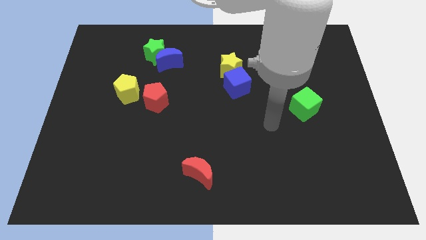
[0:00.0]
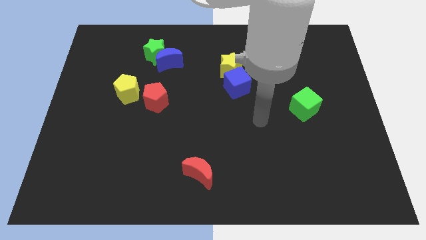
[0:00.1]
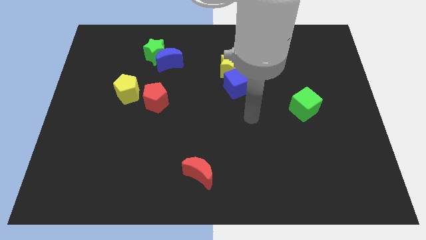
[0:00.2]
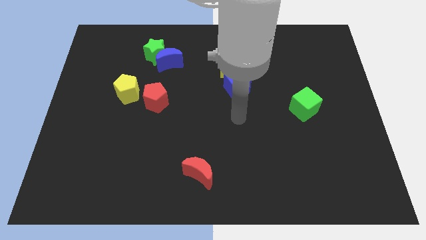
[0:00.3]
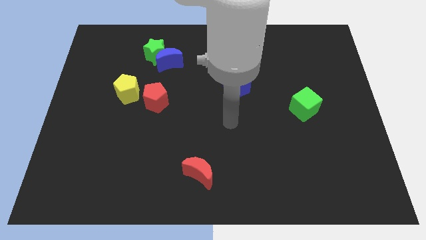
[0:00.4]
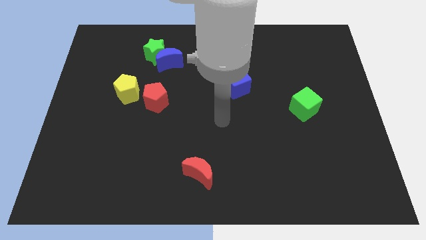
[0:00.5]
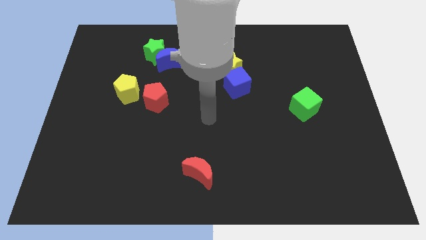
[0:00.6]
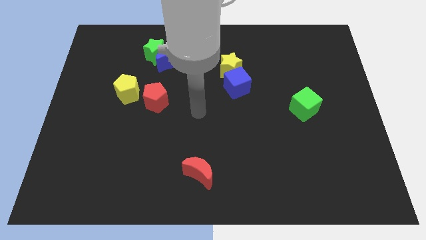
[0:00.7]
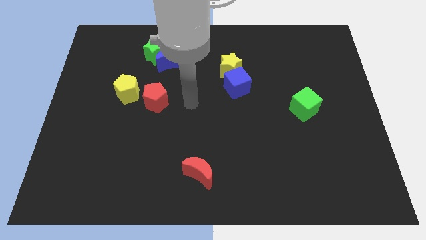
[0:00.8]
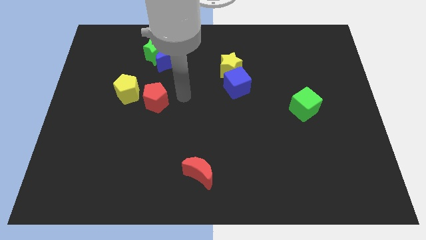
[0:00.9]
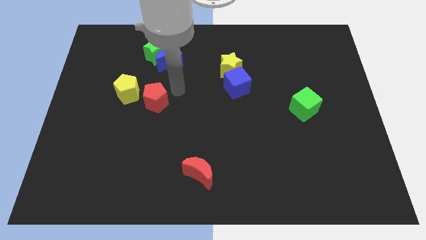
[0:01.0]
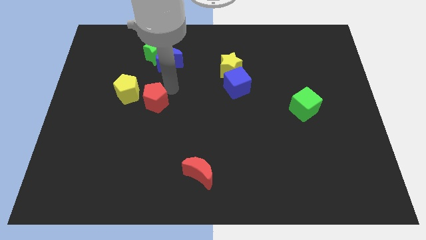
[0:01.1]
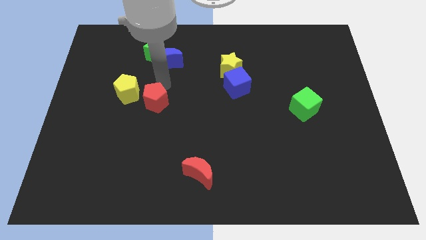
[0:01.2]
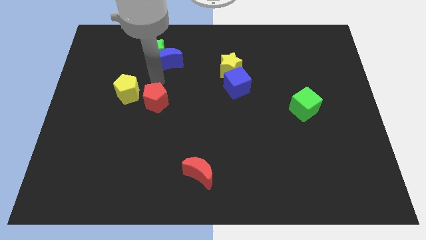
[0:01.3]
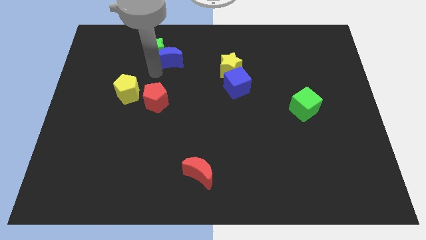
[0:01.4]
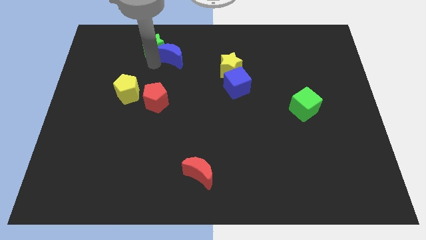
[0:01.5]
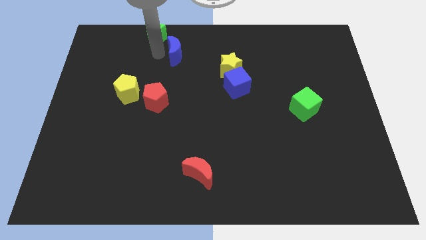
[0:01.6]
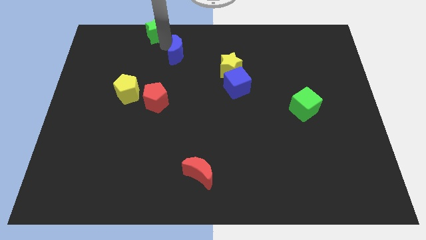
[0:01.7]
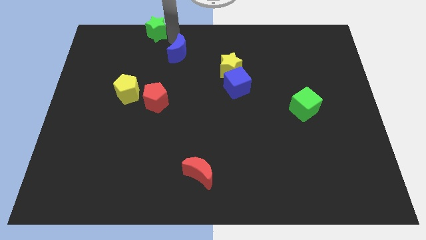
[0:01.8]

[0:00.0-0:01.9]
move the blue moon away from the green star

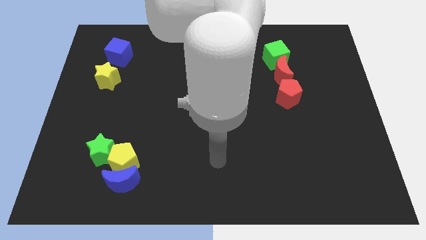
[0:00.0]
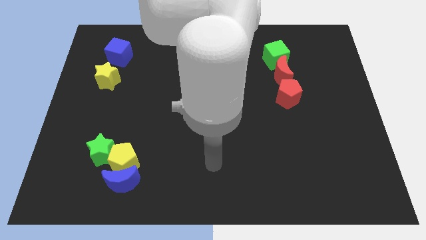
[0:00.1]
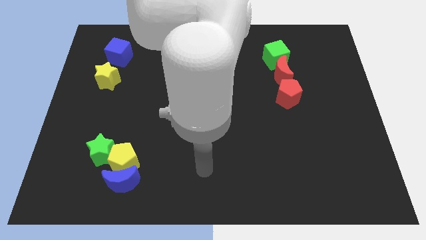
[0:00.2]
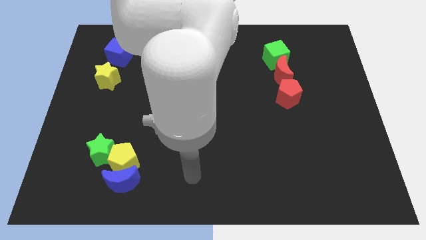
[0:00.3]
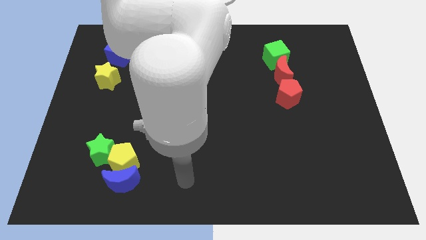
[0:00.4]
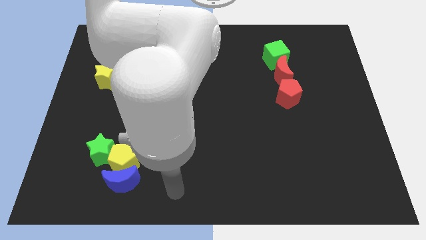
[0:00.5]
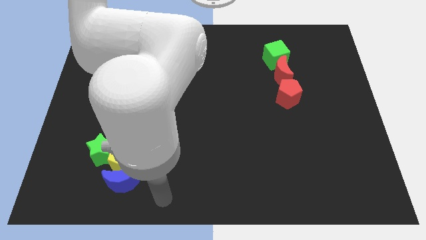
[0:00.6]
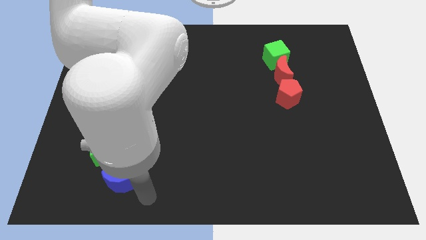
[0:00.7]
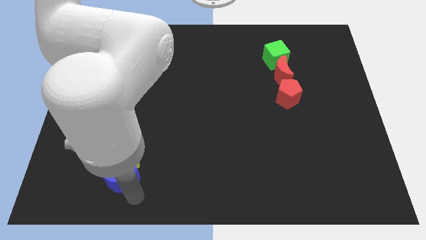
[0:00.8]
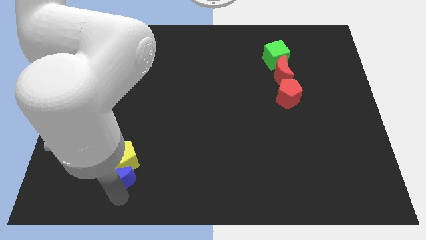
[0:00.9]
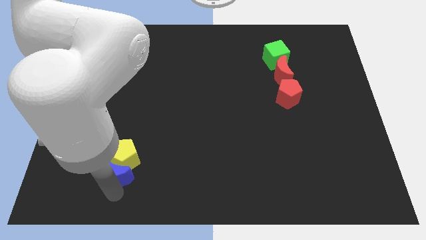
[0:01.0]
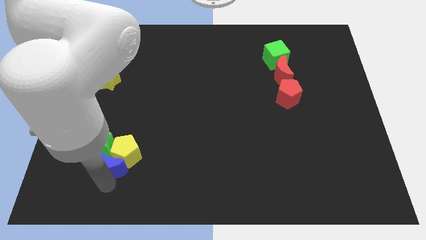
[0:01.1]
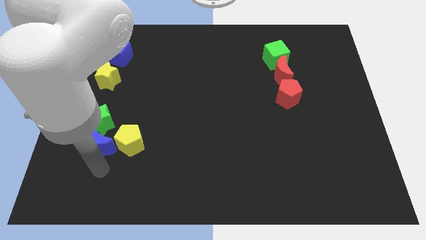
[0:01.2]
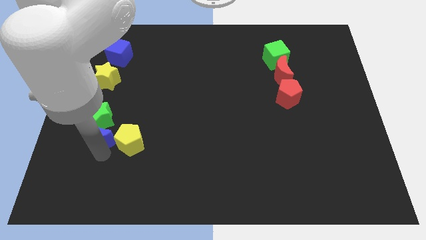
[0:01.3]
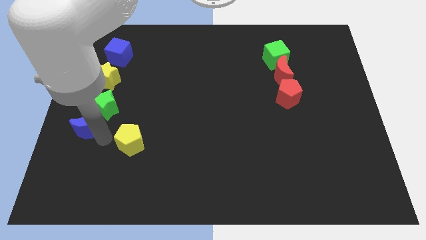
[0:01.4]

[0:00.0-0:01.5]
move the yellow pentagon away from the blue moon and green star

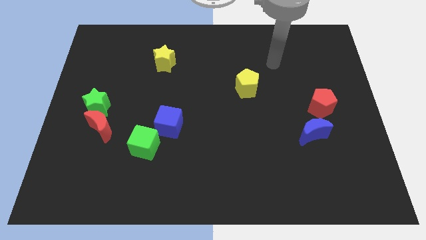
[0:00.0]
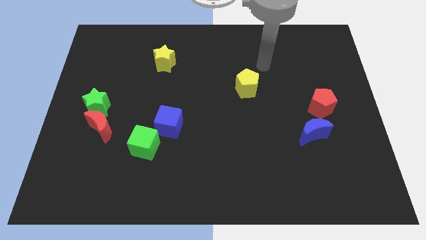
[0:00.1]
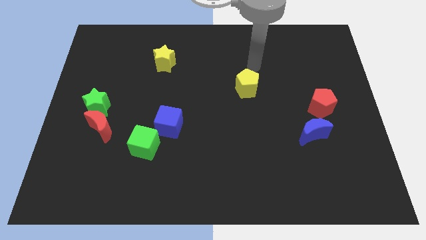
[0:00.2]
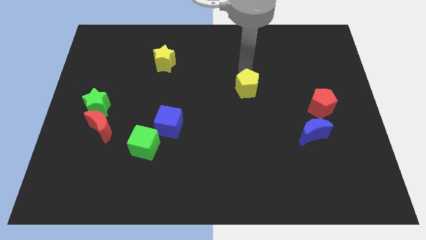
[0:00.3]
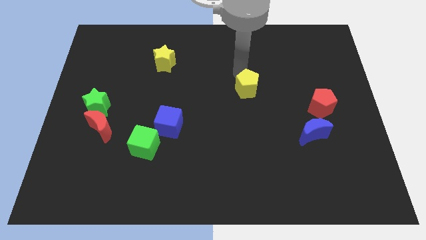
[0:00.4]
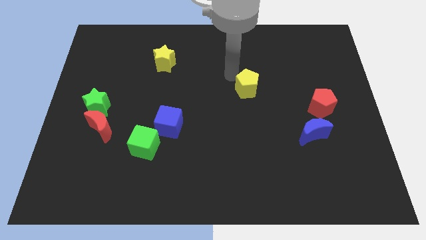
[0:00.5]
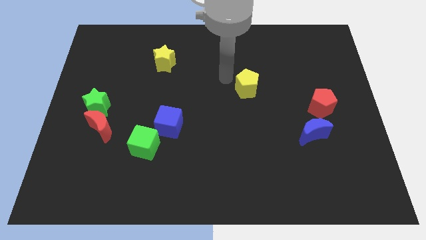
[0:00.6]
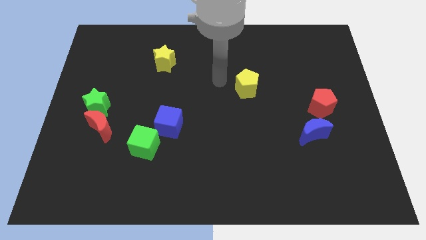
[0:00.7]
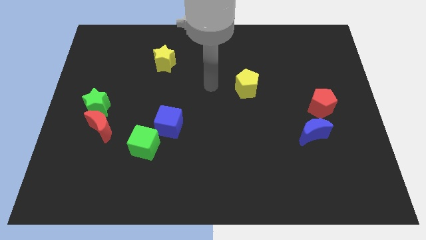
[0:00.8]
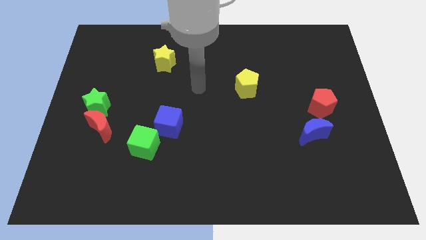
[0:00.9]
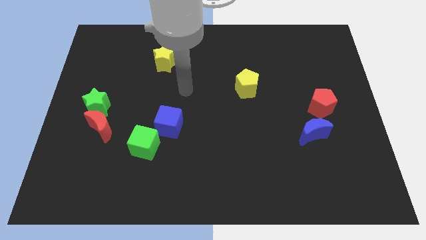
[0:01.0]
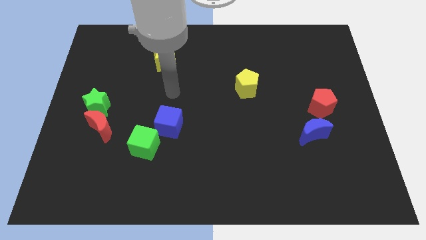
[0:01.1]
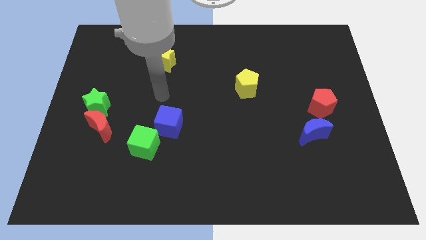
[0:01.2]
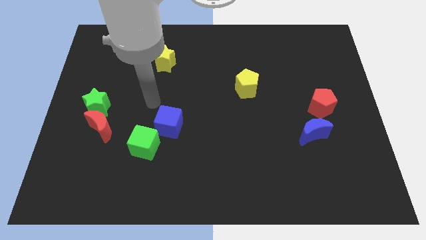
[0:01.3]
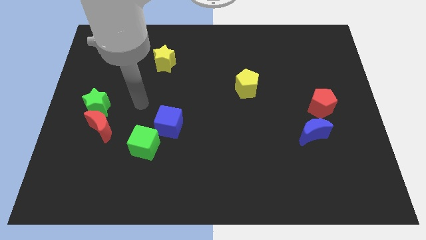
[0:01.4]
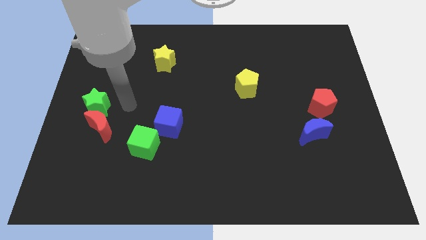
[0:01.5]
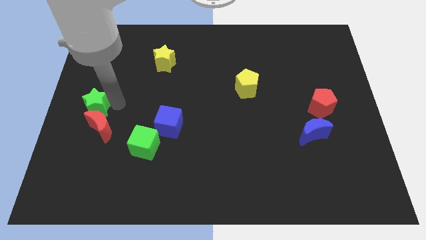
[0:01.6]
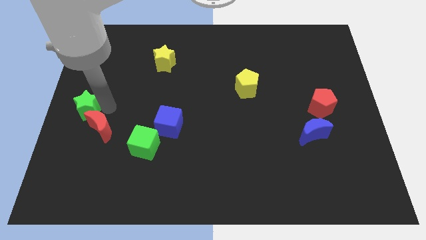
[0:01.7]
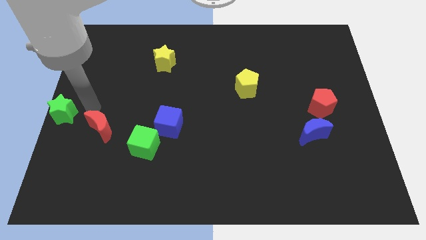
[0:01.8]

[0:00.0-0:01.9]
move the red moon away from the green star

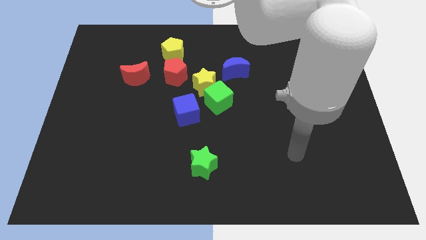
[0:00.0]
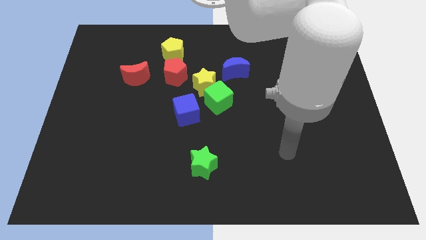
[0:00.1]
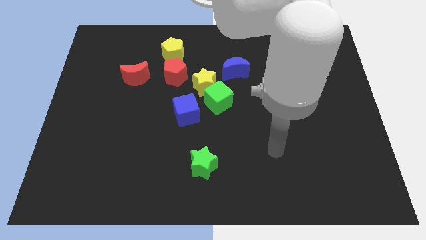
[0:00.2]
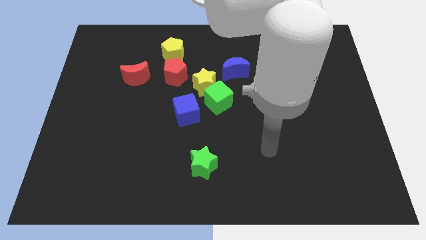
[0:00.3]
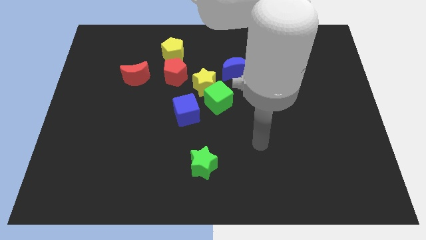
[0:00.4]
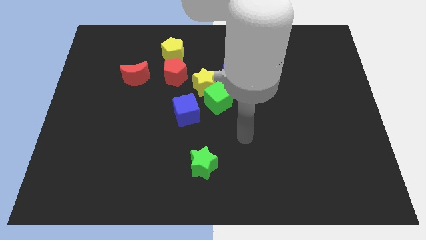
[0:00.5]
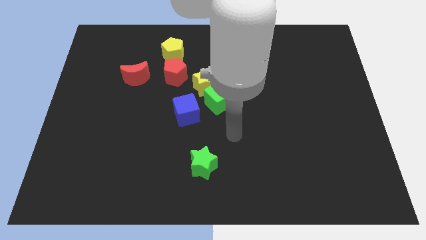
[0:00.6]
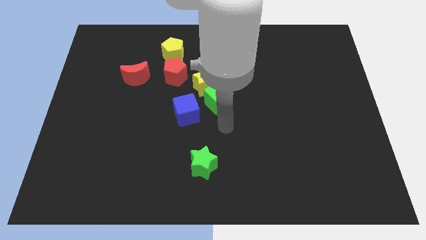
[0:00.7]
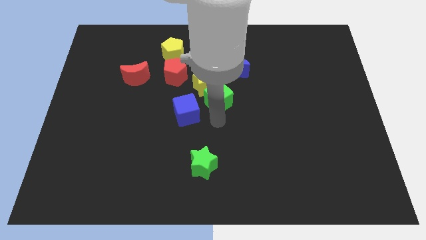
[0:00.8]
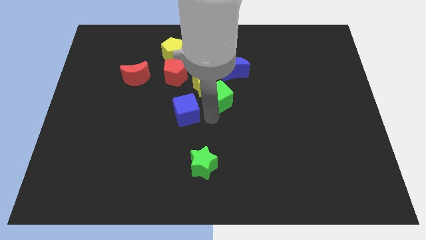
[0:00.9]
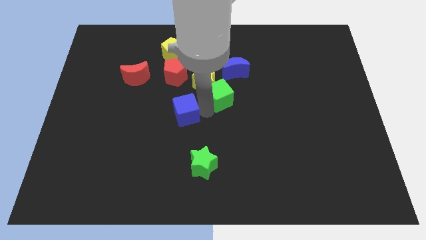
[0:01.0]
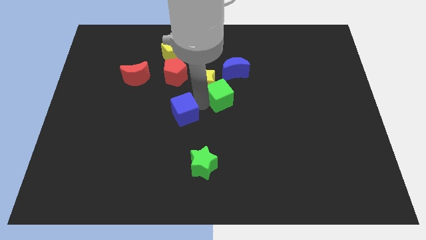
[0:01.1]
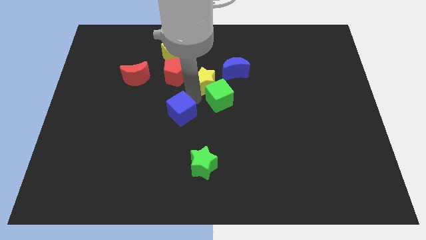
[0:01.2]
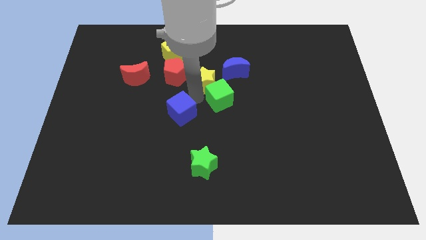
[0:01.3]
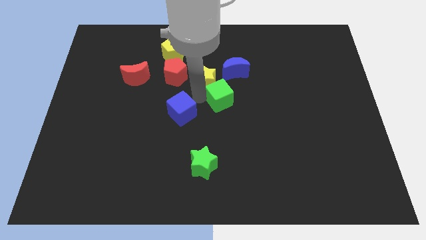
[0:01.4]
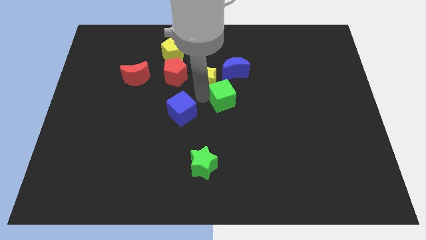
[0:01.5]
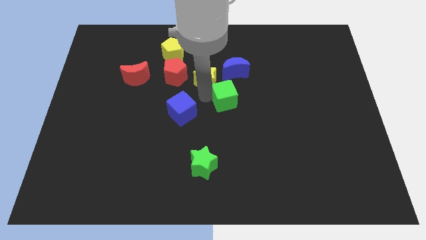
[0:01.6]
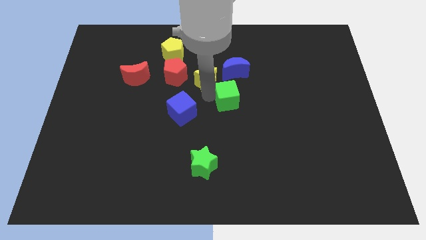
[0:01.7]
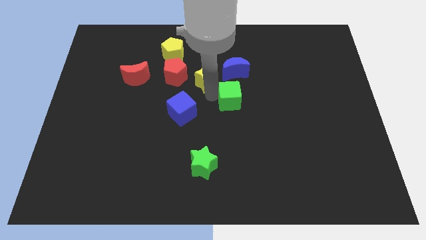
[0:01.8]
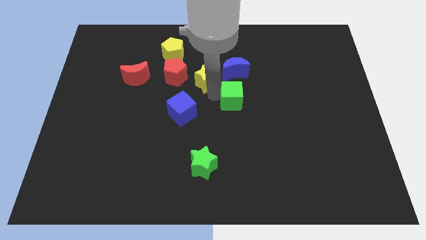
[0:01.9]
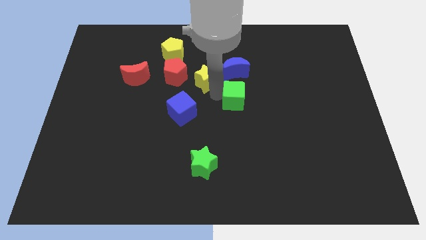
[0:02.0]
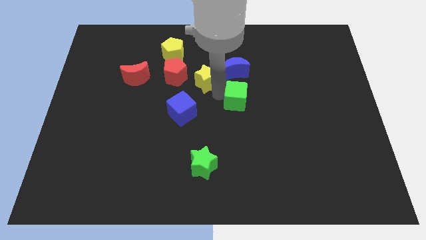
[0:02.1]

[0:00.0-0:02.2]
separate the green cube from the yellow star and blue cube

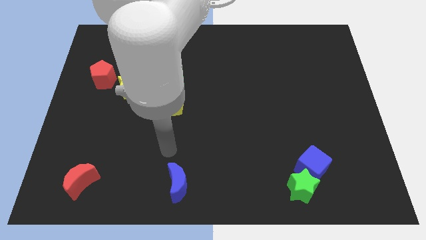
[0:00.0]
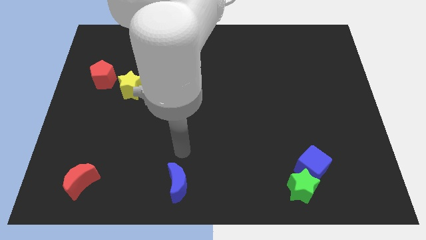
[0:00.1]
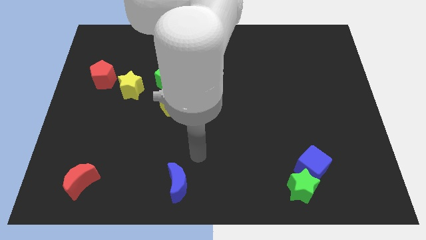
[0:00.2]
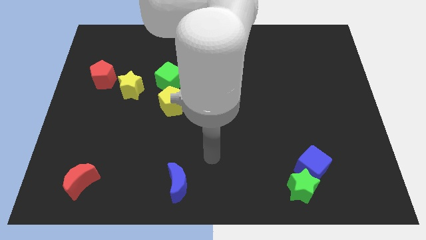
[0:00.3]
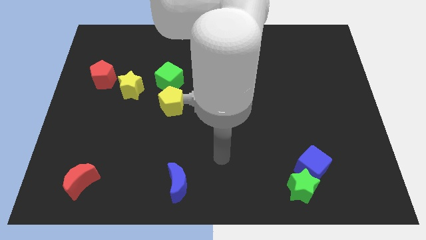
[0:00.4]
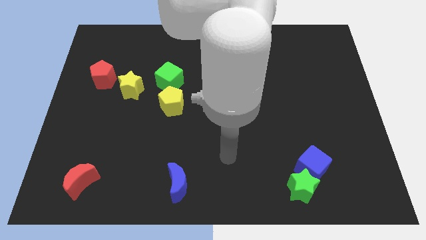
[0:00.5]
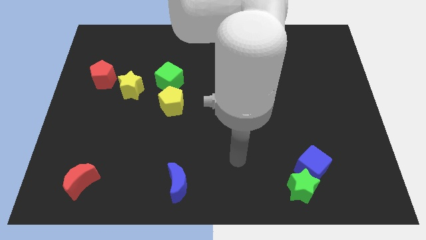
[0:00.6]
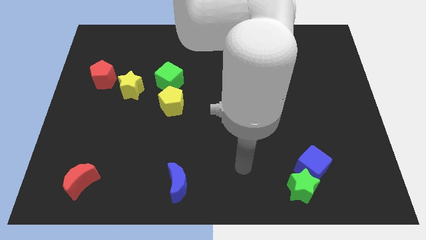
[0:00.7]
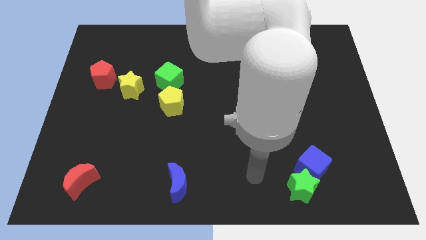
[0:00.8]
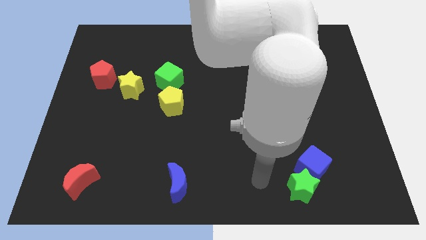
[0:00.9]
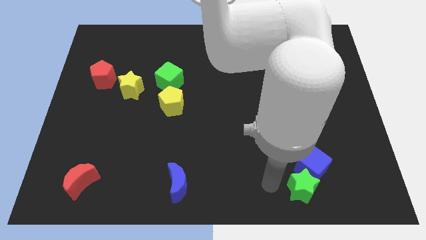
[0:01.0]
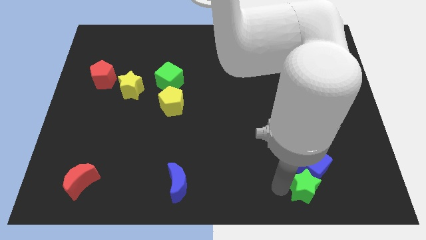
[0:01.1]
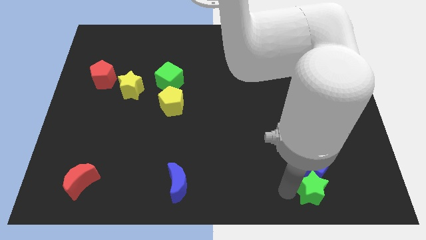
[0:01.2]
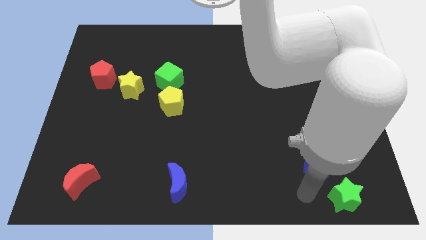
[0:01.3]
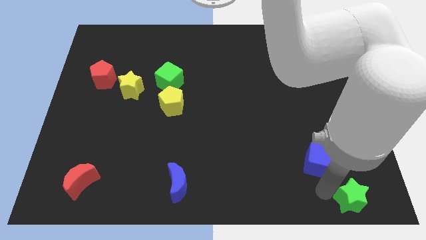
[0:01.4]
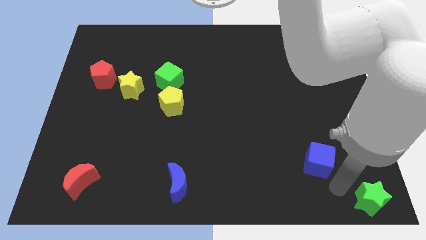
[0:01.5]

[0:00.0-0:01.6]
separate the blue cube from the green star
